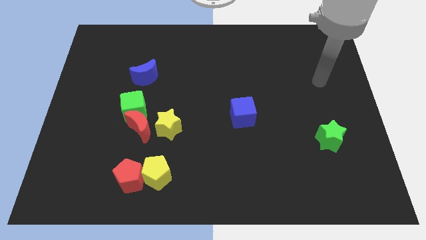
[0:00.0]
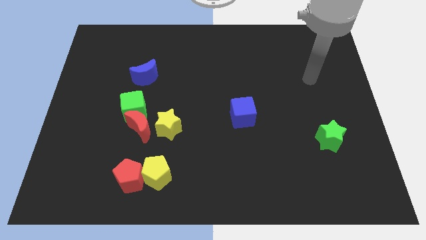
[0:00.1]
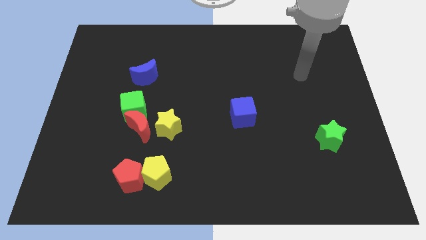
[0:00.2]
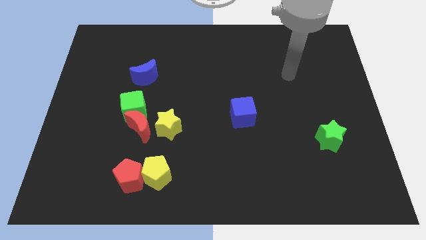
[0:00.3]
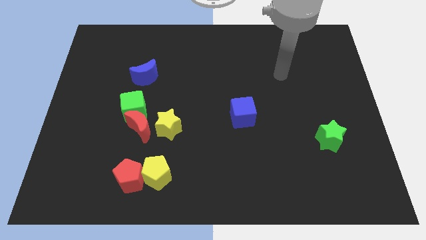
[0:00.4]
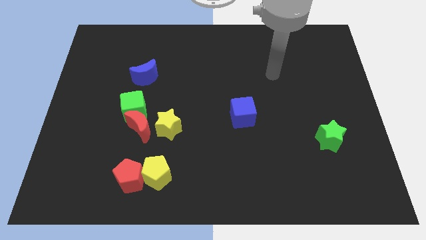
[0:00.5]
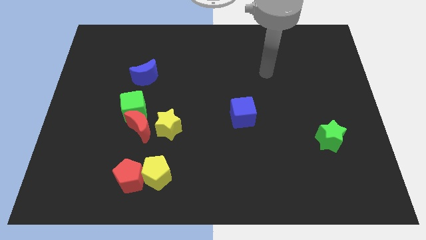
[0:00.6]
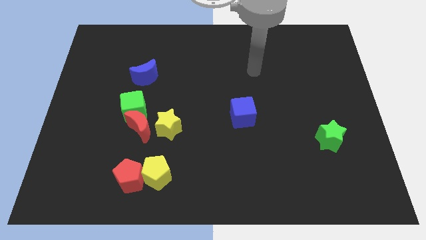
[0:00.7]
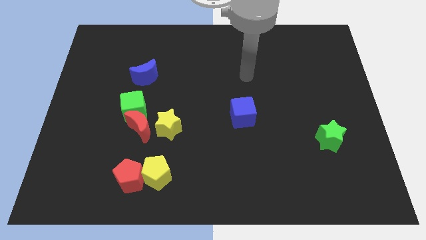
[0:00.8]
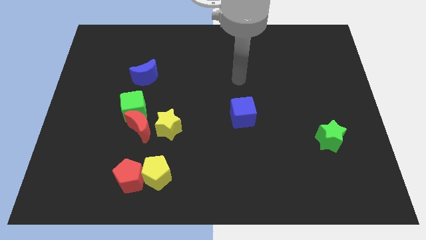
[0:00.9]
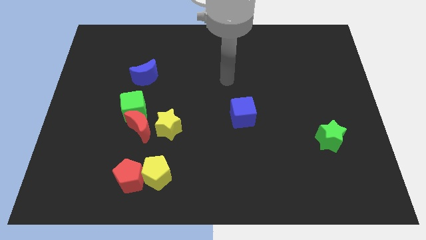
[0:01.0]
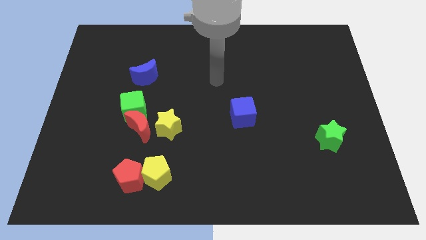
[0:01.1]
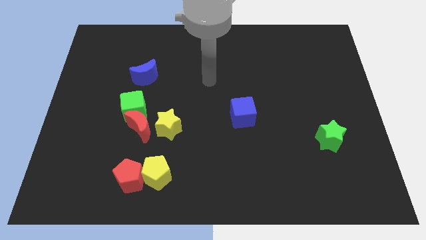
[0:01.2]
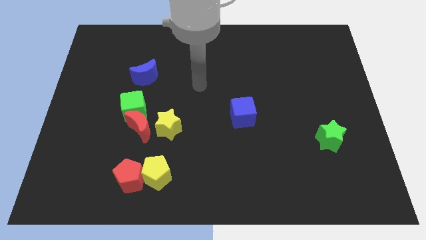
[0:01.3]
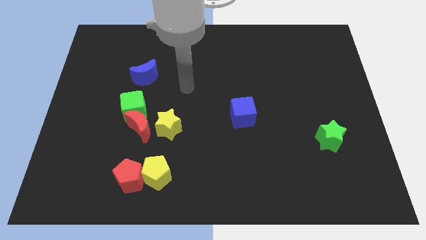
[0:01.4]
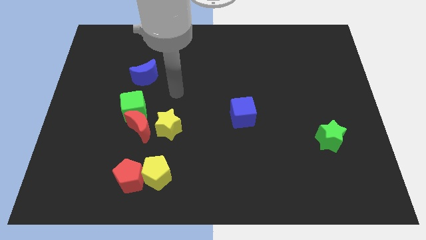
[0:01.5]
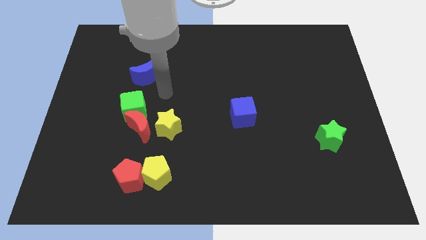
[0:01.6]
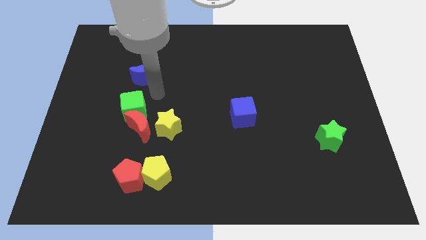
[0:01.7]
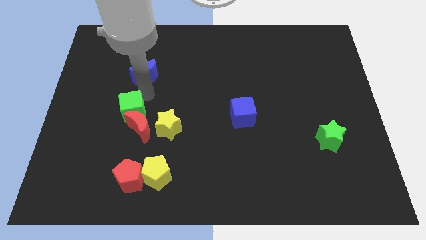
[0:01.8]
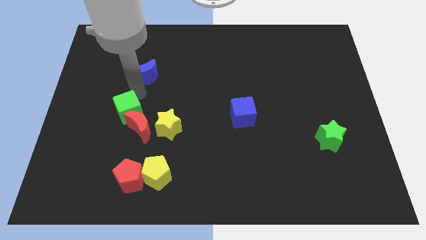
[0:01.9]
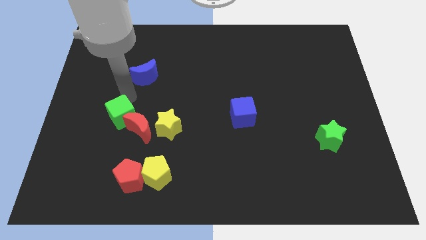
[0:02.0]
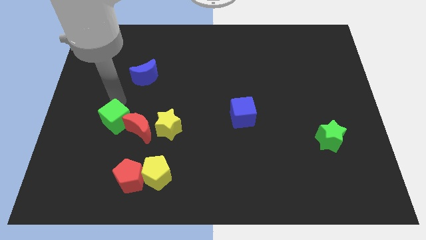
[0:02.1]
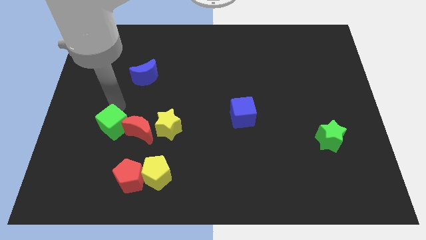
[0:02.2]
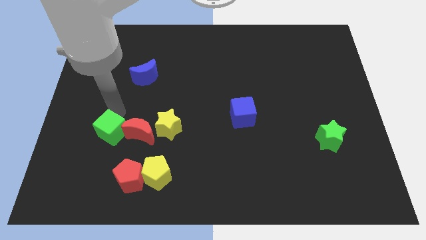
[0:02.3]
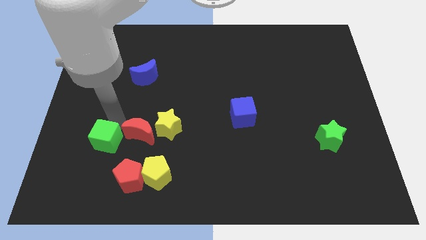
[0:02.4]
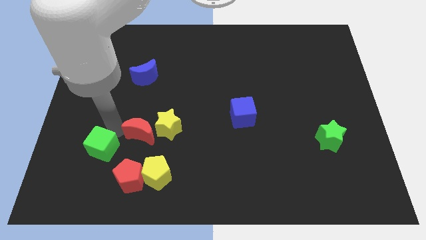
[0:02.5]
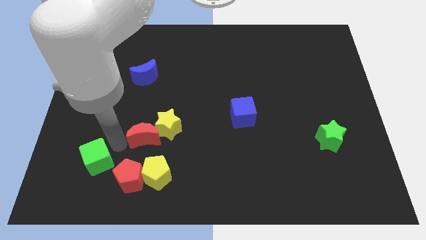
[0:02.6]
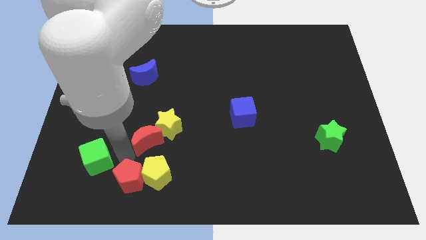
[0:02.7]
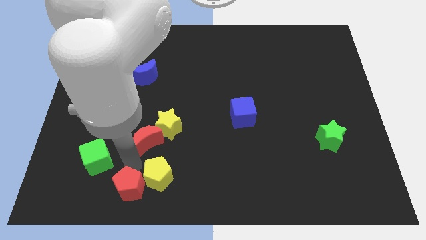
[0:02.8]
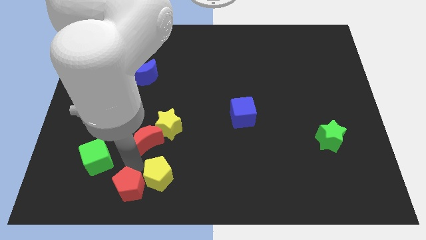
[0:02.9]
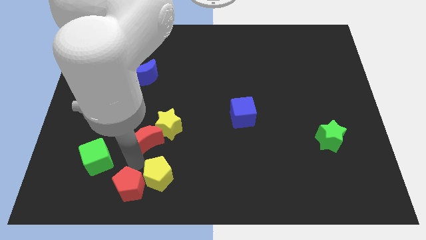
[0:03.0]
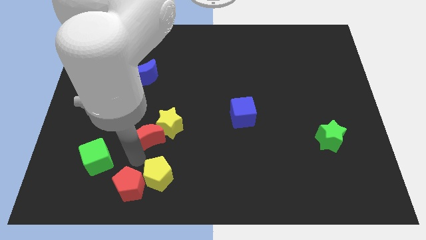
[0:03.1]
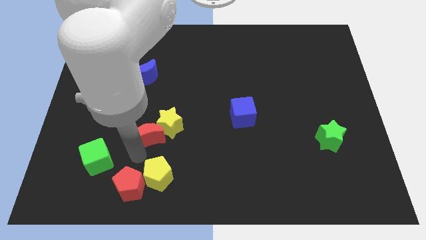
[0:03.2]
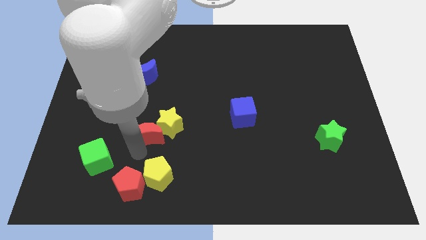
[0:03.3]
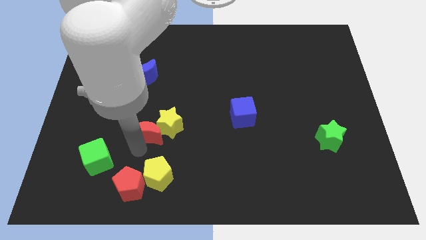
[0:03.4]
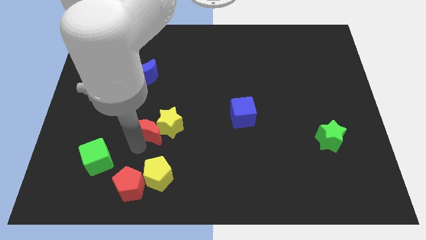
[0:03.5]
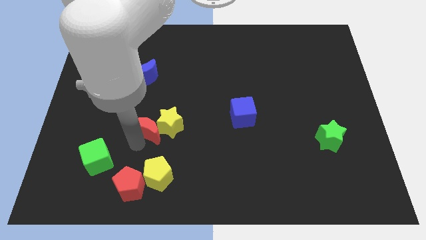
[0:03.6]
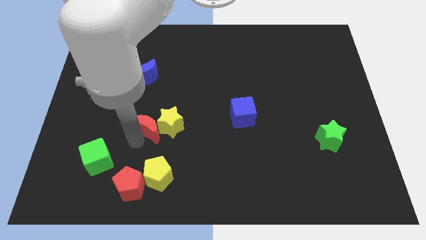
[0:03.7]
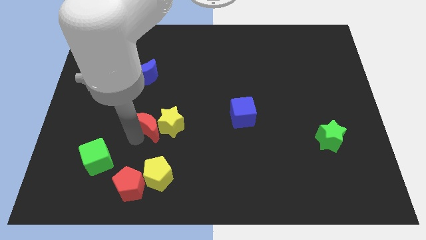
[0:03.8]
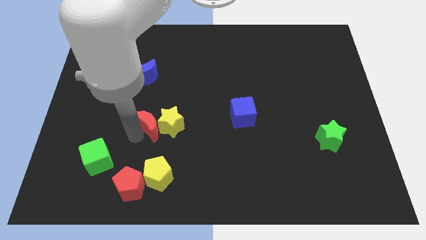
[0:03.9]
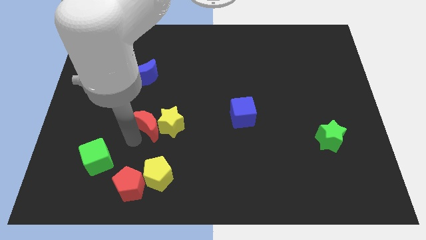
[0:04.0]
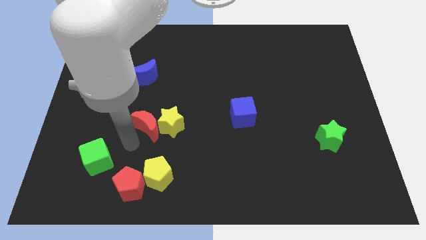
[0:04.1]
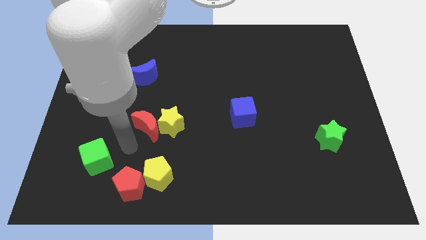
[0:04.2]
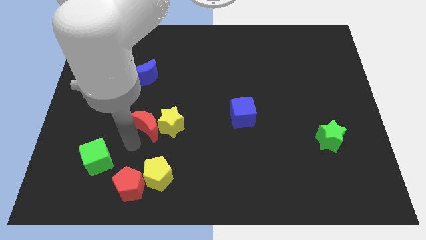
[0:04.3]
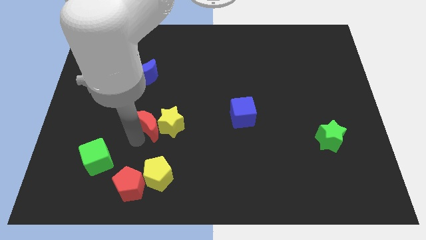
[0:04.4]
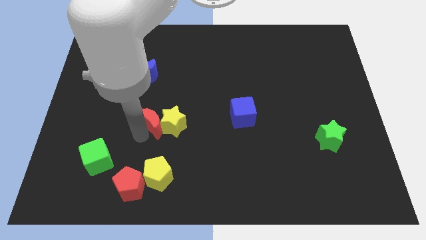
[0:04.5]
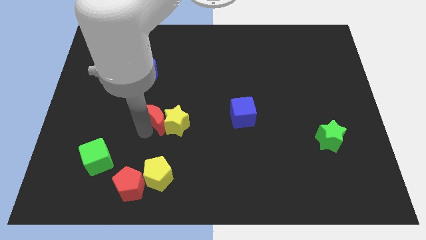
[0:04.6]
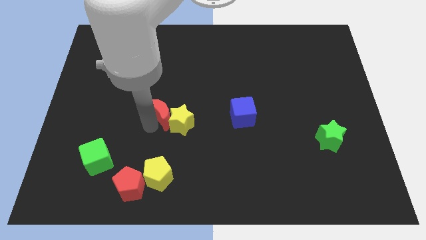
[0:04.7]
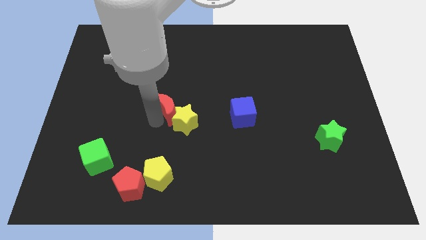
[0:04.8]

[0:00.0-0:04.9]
push the red moon upwards and then to the right a bit

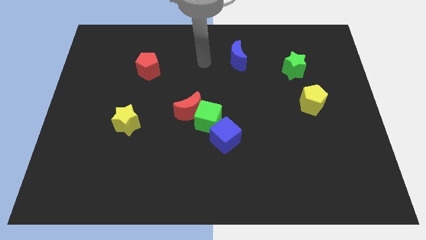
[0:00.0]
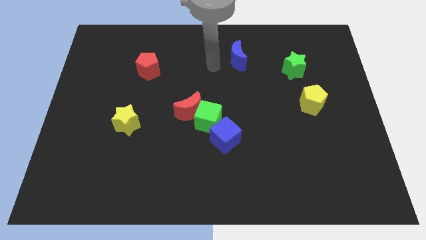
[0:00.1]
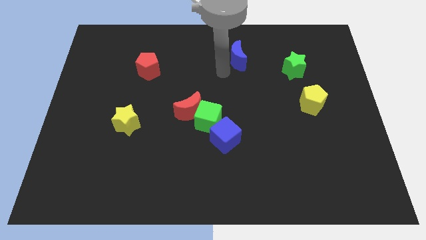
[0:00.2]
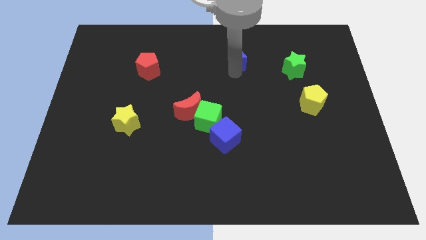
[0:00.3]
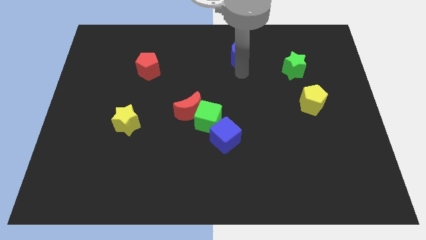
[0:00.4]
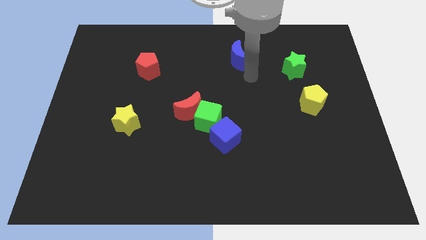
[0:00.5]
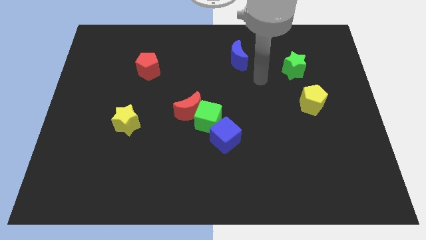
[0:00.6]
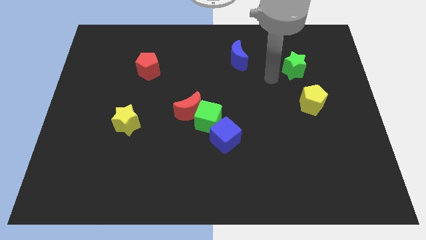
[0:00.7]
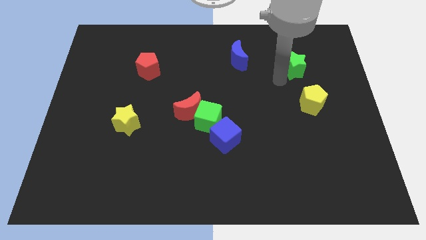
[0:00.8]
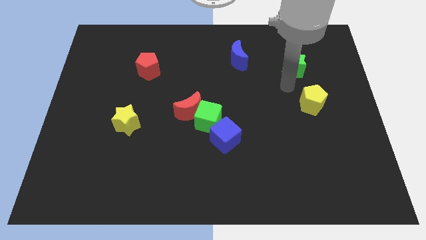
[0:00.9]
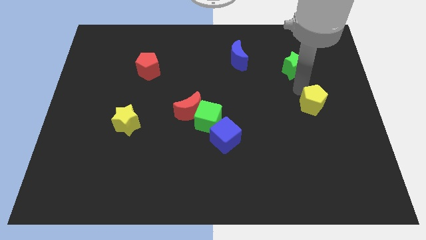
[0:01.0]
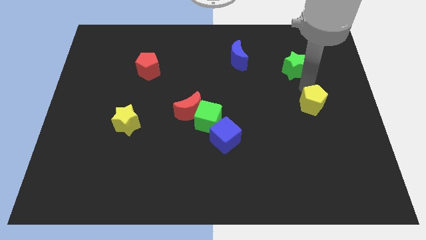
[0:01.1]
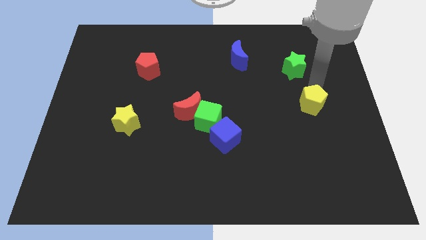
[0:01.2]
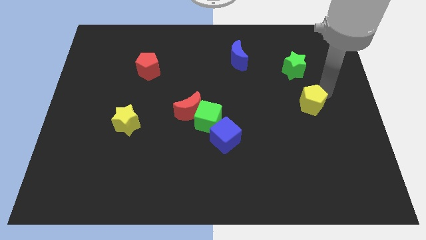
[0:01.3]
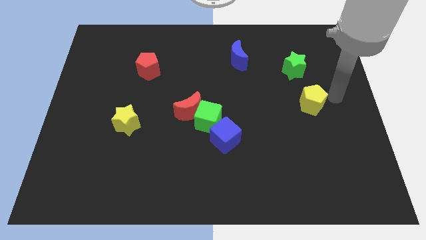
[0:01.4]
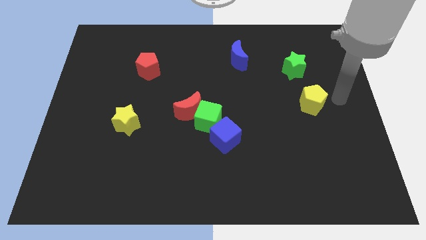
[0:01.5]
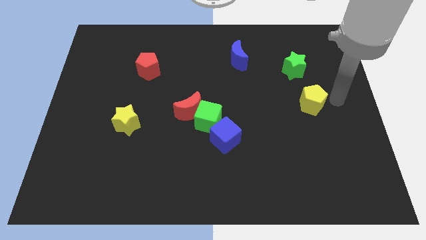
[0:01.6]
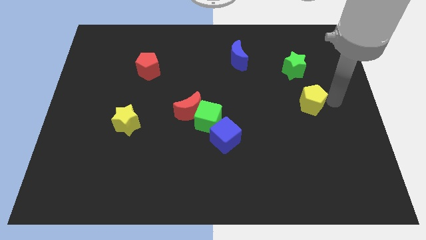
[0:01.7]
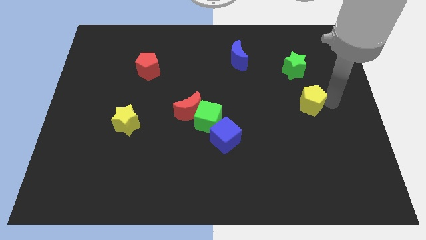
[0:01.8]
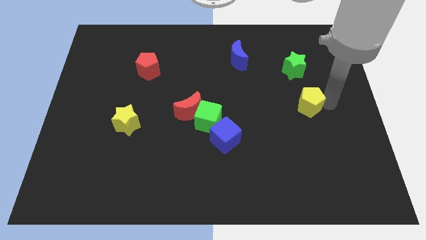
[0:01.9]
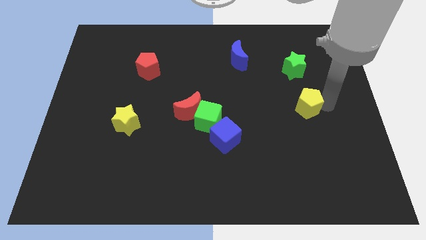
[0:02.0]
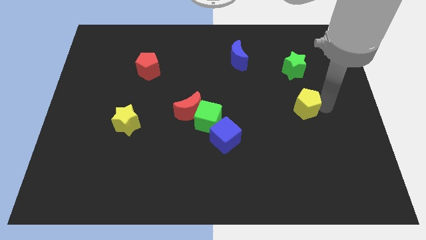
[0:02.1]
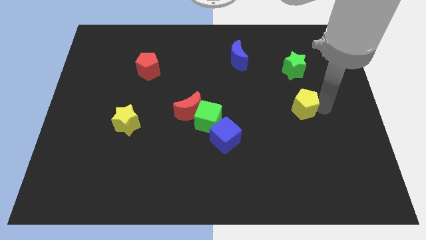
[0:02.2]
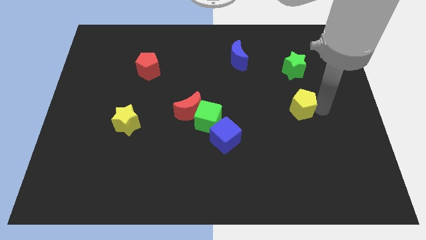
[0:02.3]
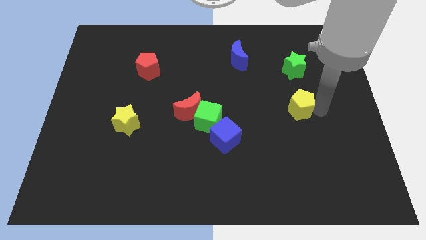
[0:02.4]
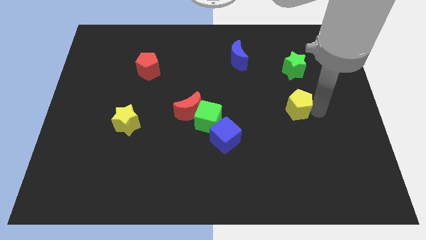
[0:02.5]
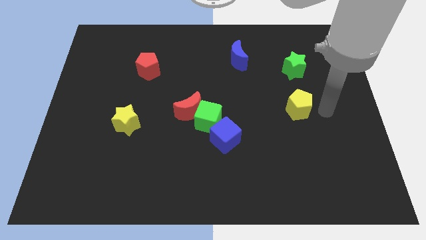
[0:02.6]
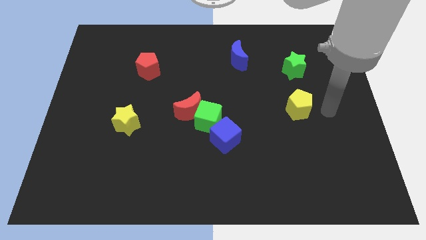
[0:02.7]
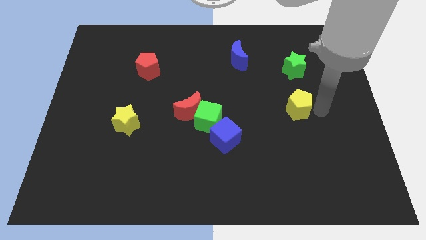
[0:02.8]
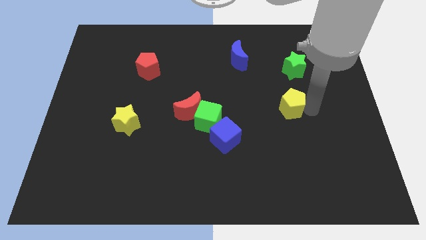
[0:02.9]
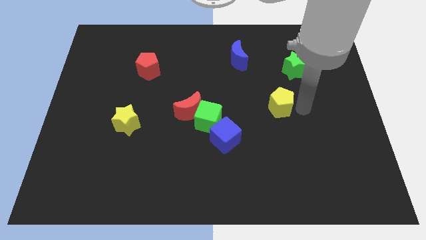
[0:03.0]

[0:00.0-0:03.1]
move the yellow pentagon somewhat to the left
